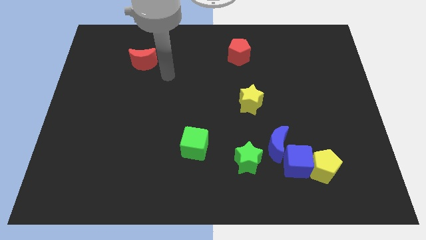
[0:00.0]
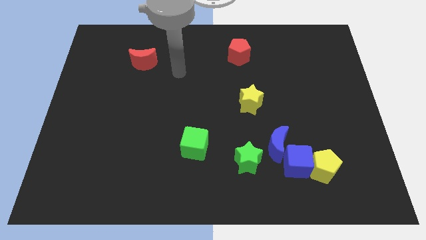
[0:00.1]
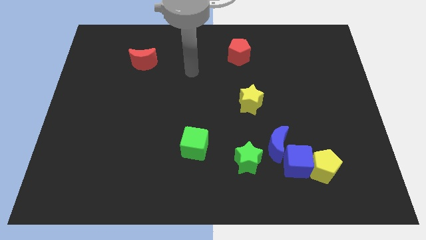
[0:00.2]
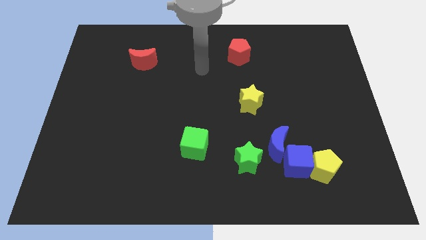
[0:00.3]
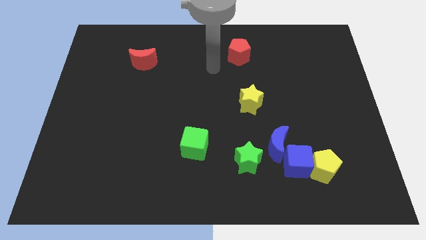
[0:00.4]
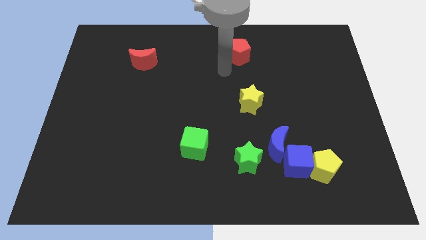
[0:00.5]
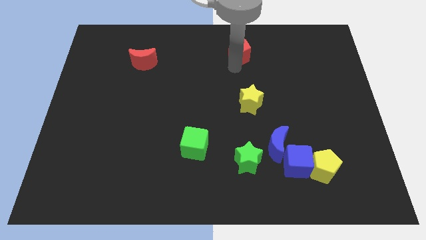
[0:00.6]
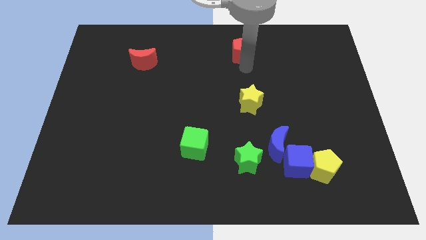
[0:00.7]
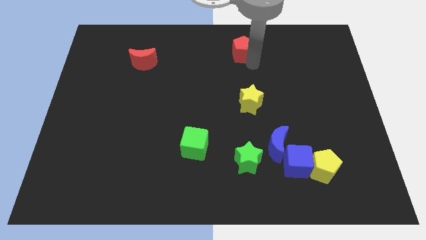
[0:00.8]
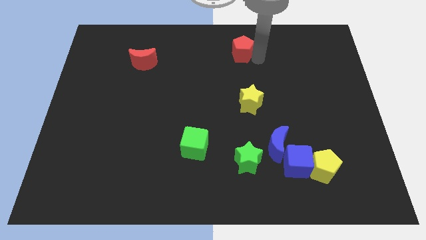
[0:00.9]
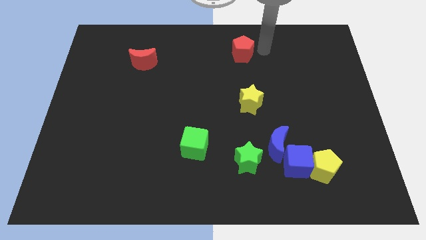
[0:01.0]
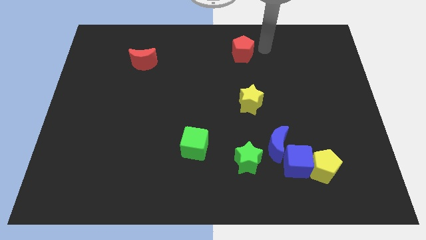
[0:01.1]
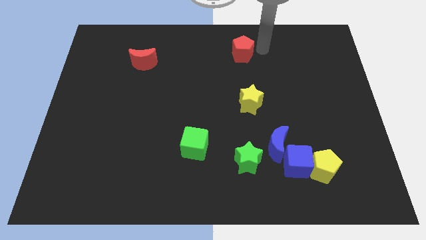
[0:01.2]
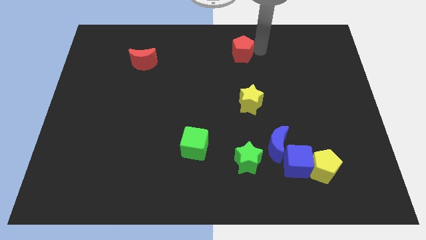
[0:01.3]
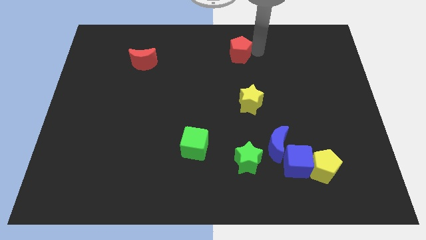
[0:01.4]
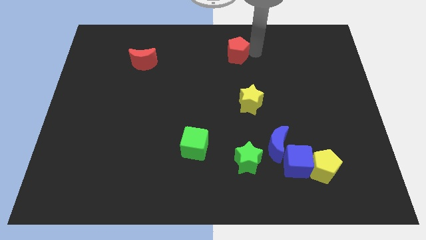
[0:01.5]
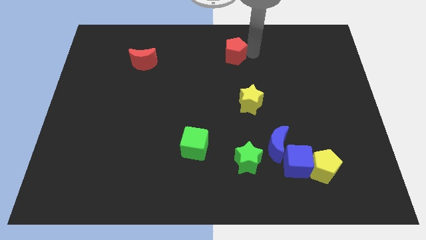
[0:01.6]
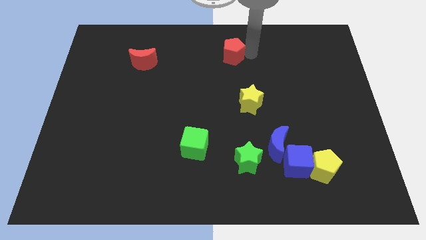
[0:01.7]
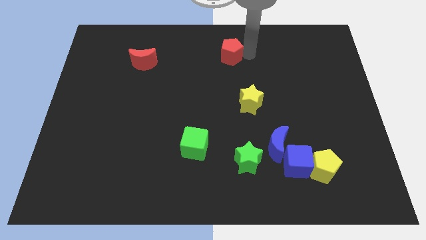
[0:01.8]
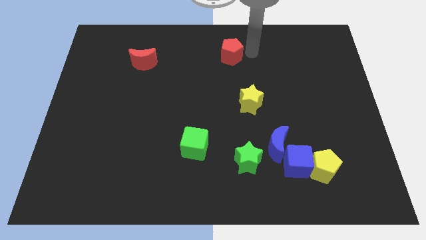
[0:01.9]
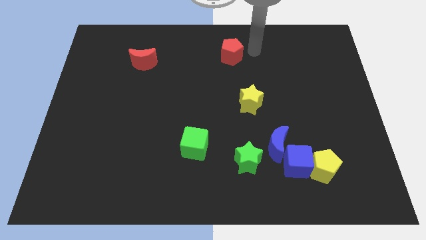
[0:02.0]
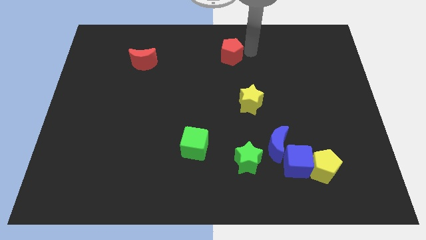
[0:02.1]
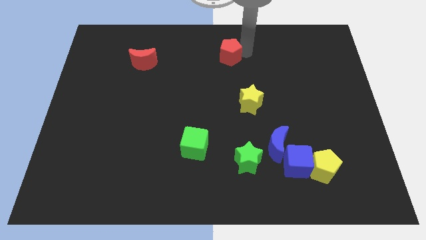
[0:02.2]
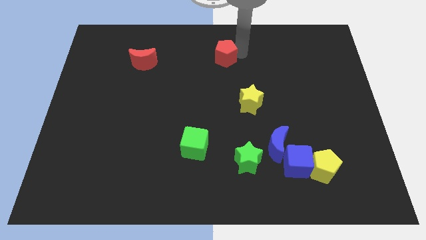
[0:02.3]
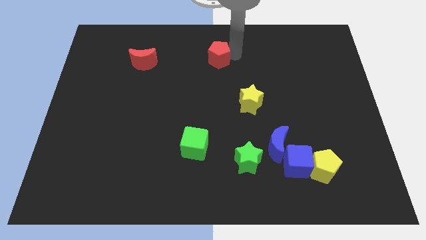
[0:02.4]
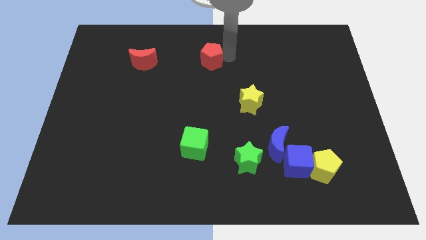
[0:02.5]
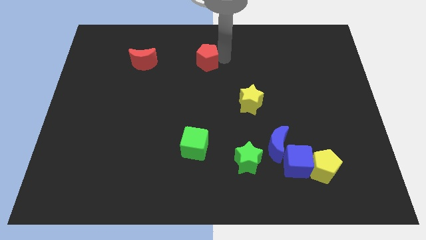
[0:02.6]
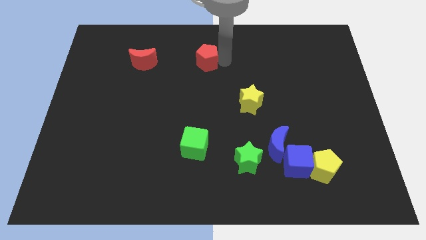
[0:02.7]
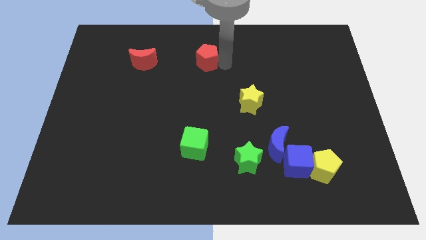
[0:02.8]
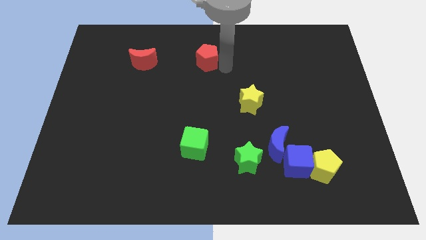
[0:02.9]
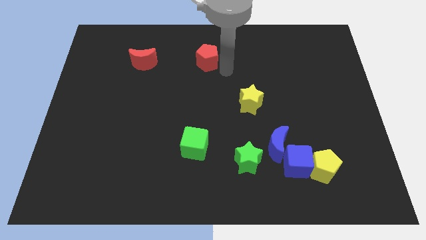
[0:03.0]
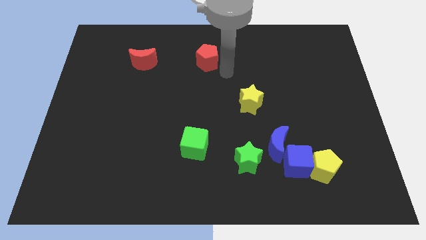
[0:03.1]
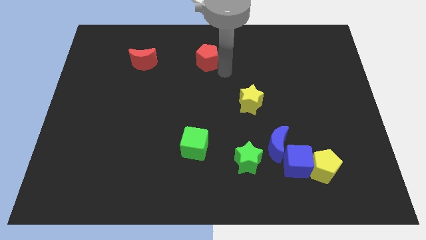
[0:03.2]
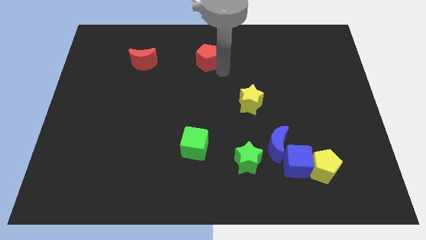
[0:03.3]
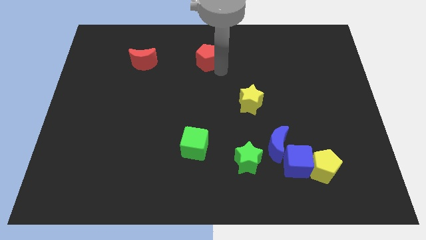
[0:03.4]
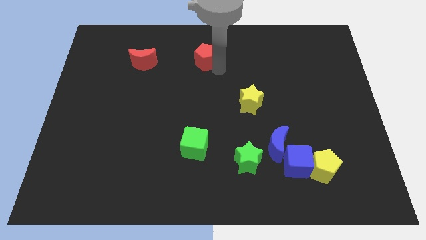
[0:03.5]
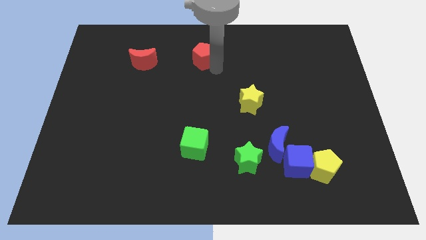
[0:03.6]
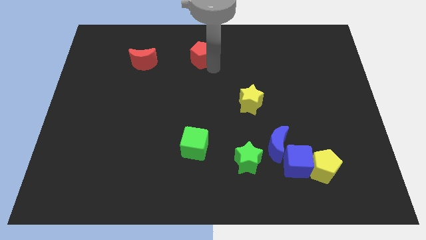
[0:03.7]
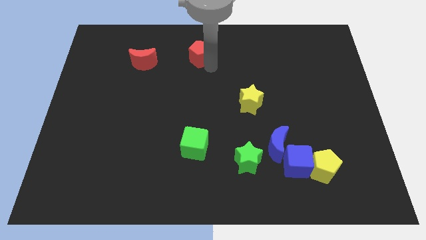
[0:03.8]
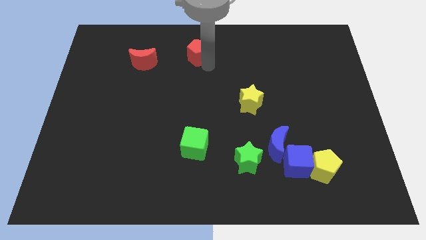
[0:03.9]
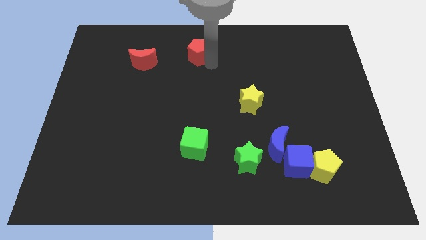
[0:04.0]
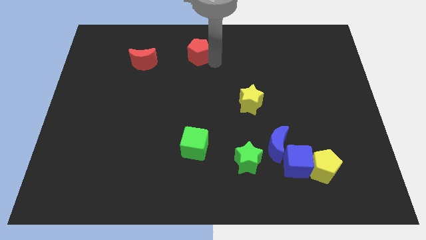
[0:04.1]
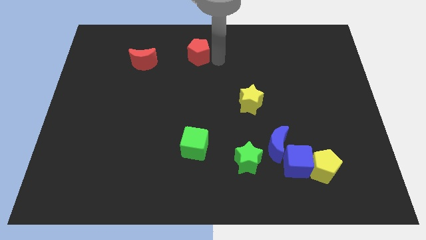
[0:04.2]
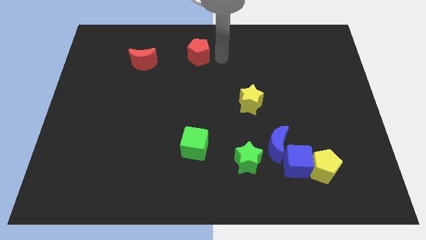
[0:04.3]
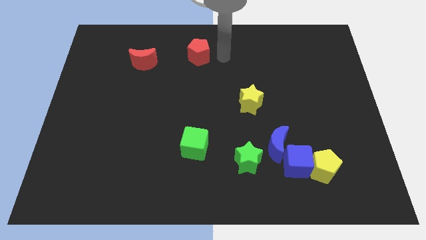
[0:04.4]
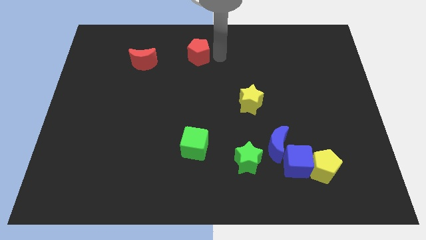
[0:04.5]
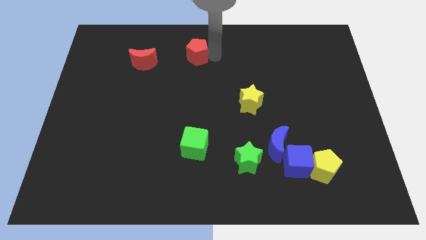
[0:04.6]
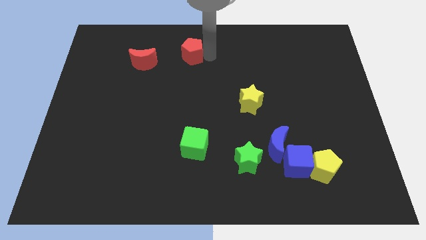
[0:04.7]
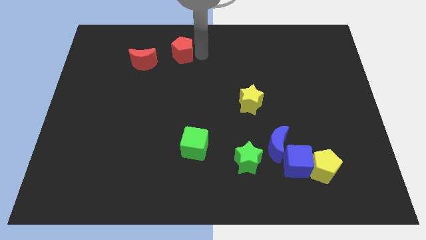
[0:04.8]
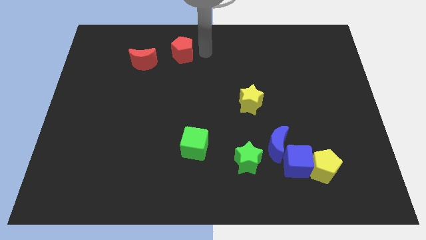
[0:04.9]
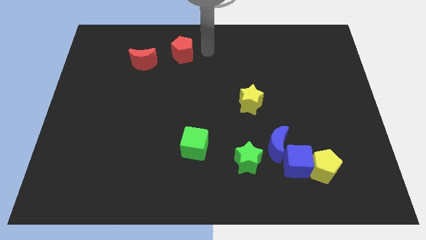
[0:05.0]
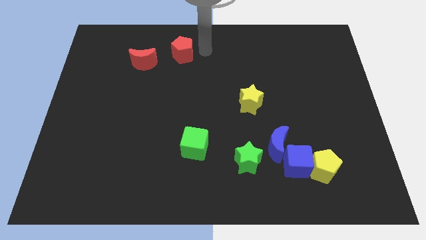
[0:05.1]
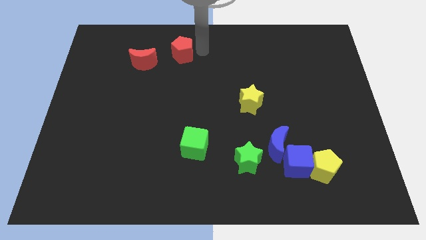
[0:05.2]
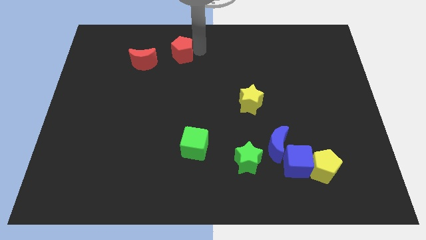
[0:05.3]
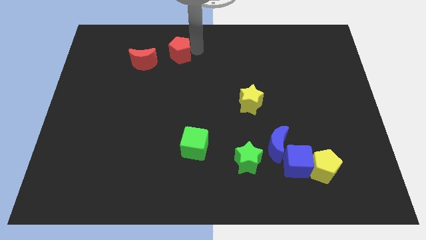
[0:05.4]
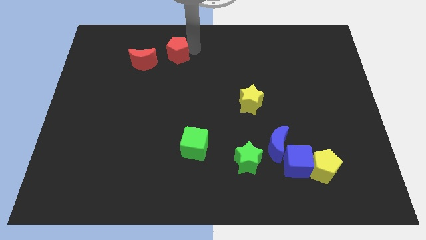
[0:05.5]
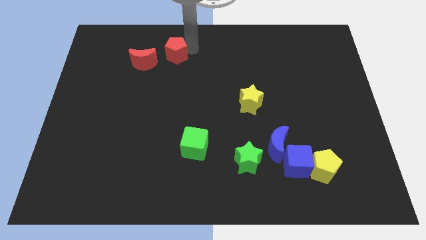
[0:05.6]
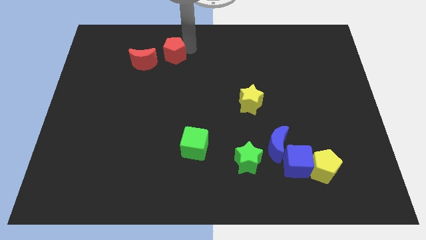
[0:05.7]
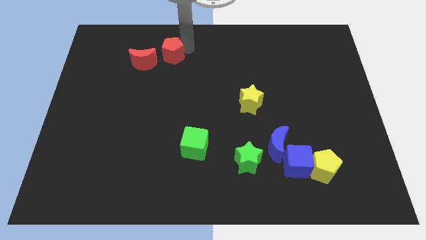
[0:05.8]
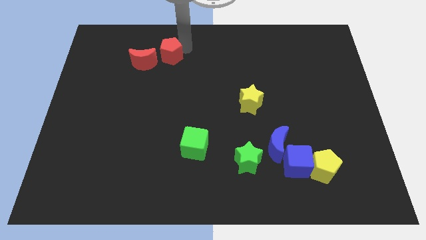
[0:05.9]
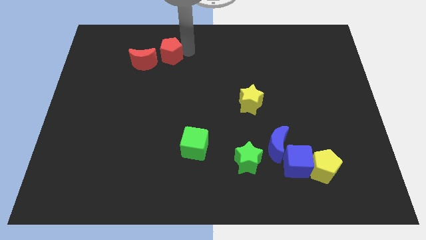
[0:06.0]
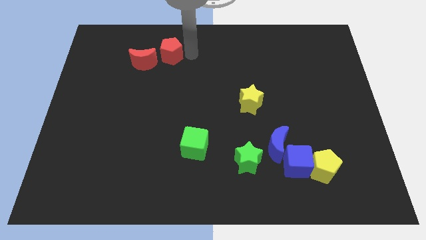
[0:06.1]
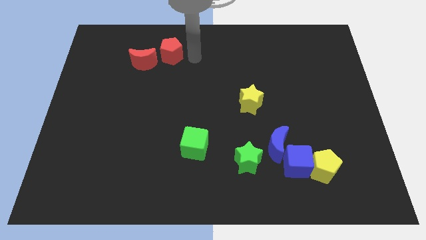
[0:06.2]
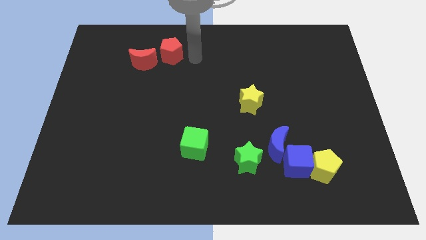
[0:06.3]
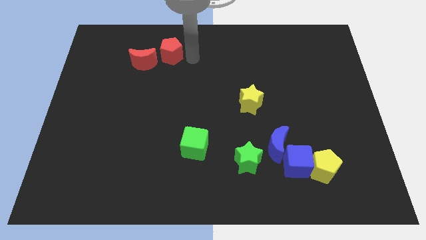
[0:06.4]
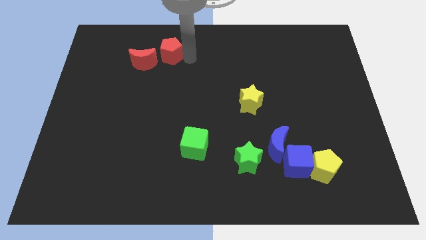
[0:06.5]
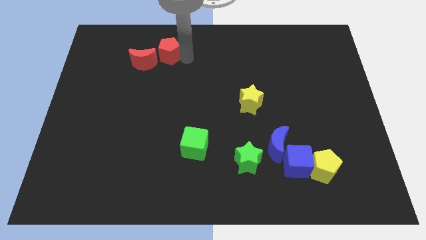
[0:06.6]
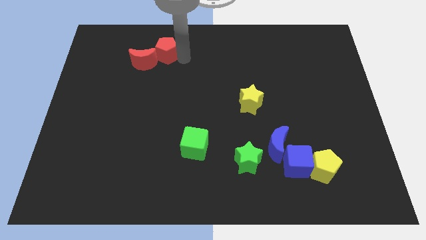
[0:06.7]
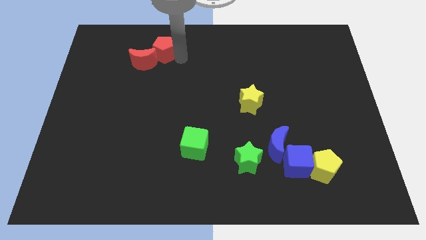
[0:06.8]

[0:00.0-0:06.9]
slide the red pentagon left

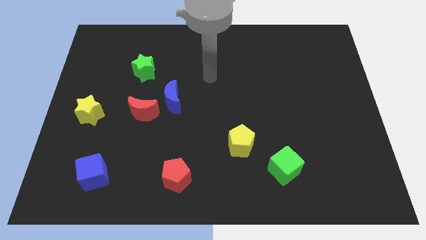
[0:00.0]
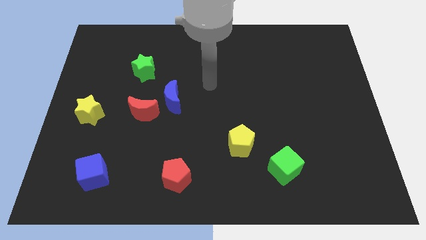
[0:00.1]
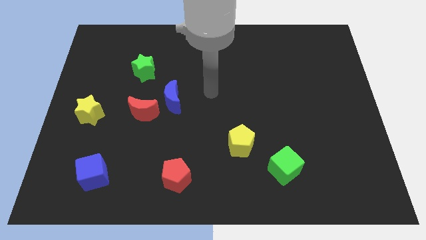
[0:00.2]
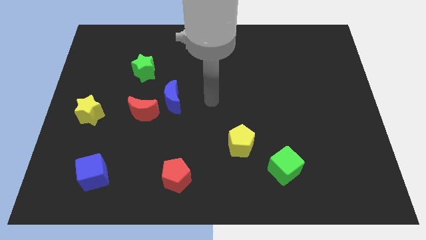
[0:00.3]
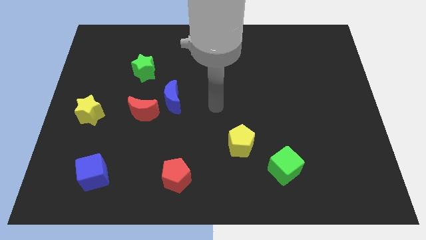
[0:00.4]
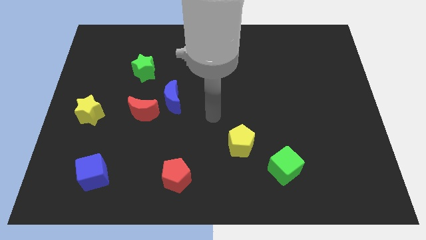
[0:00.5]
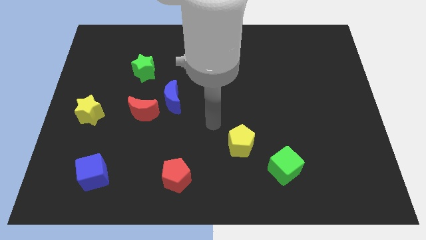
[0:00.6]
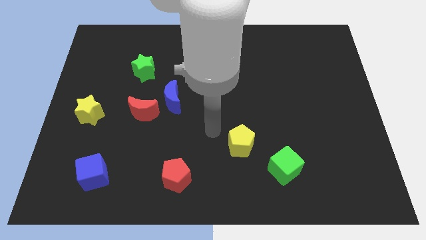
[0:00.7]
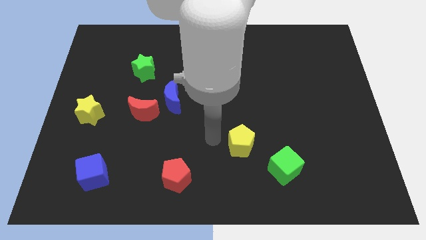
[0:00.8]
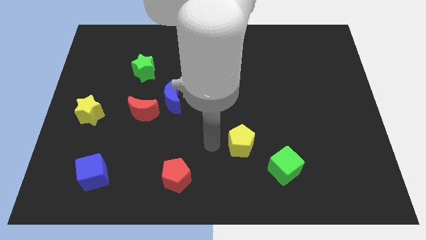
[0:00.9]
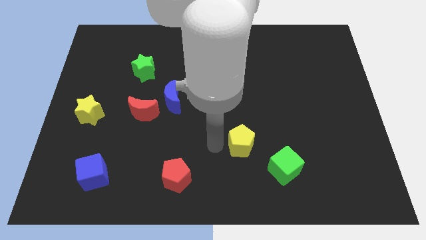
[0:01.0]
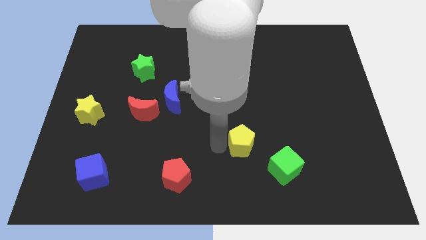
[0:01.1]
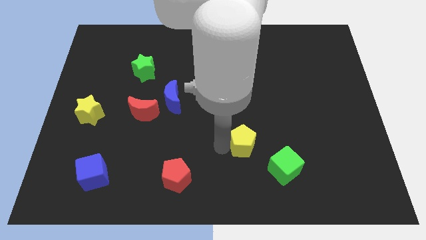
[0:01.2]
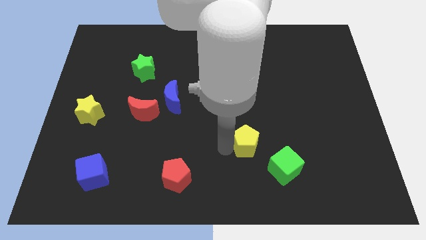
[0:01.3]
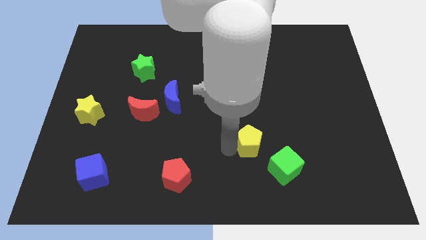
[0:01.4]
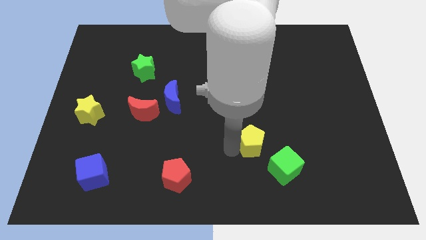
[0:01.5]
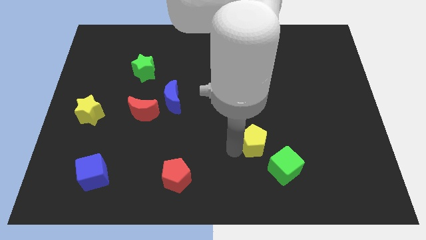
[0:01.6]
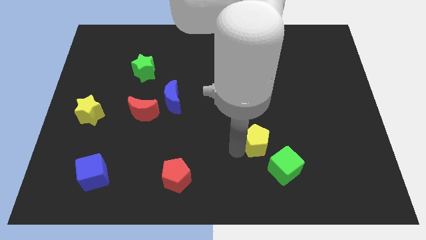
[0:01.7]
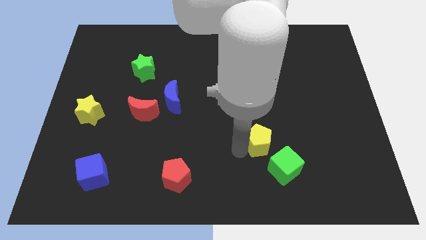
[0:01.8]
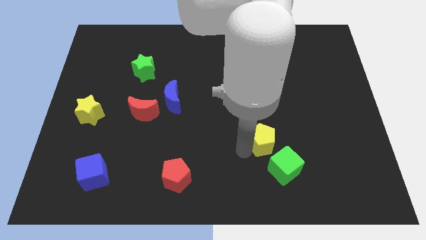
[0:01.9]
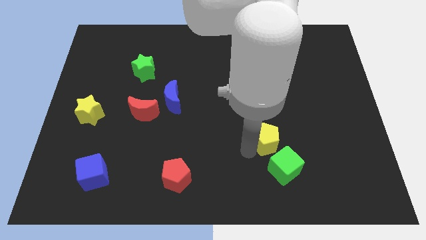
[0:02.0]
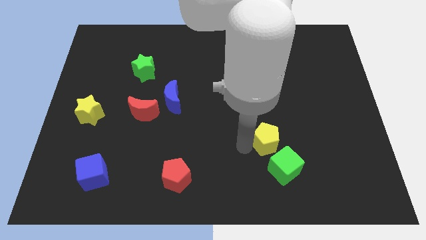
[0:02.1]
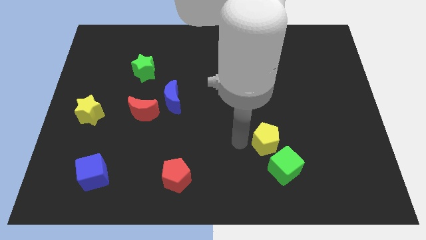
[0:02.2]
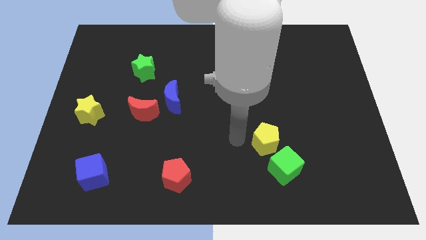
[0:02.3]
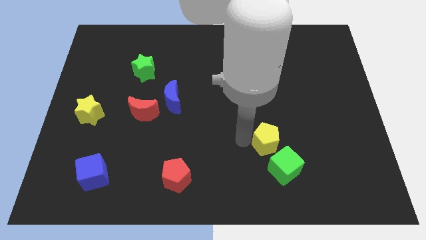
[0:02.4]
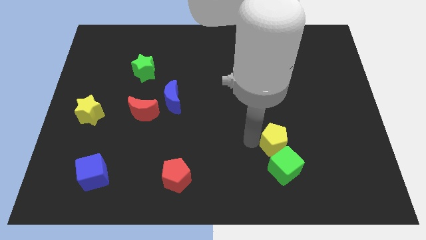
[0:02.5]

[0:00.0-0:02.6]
slightly move the yellow pentagon right
